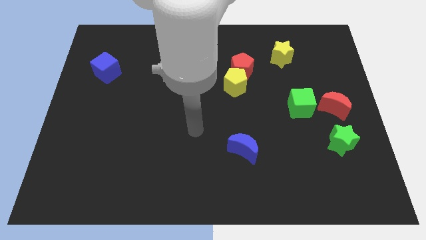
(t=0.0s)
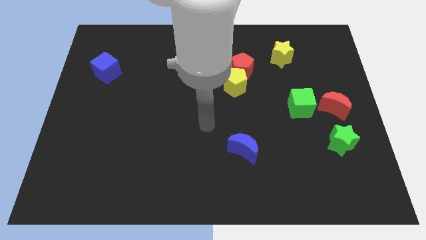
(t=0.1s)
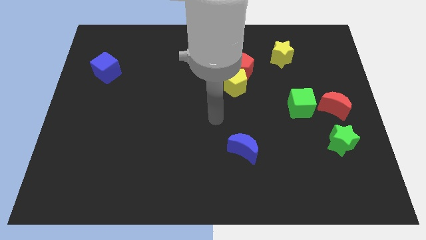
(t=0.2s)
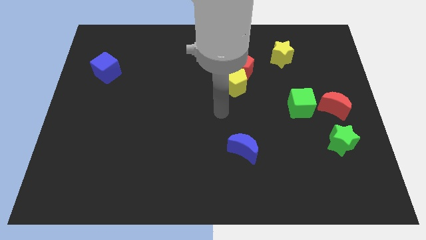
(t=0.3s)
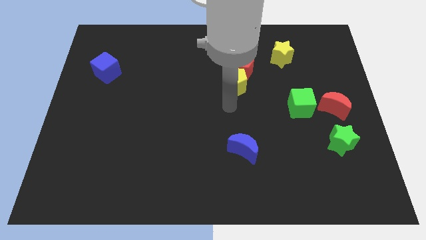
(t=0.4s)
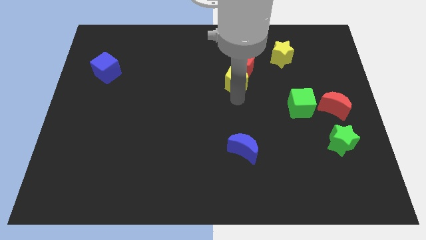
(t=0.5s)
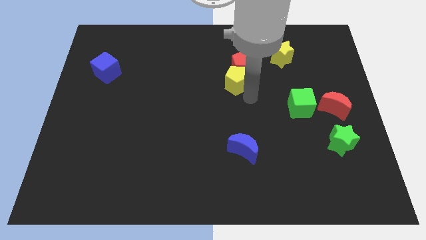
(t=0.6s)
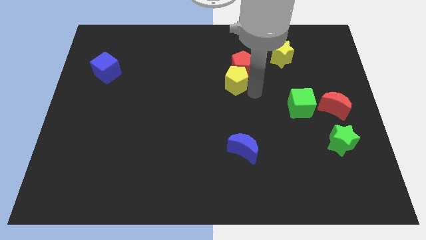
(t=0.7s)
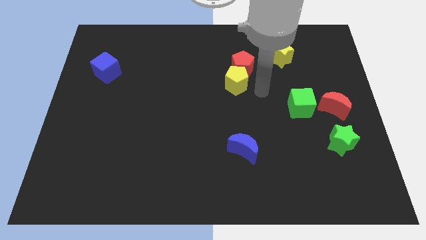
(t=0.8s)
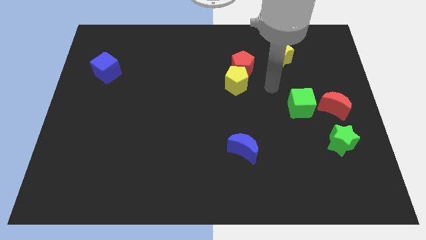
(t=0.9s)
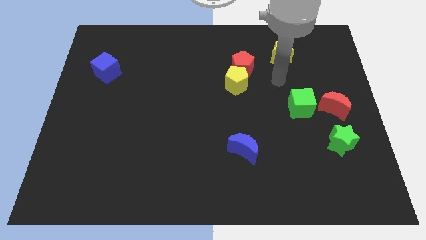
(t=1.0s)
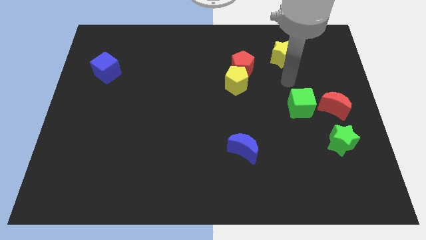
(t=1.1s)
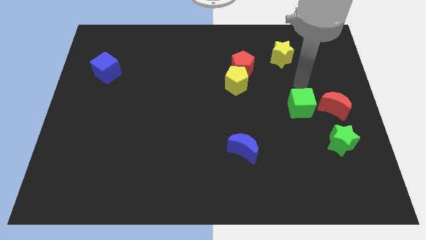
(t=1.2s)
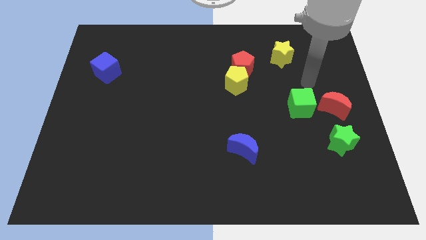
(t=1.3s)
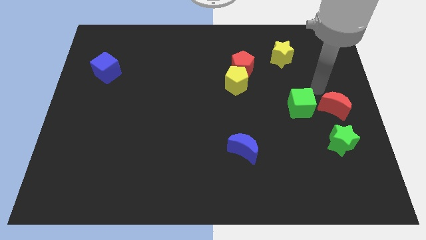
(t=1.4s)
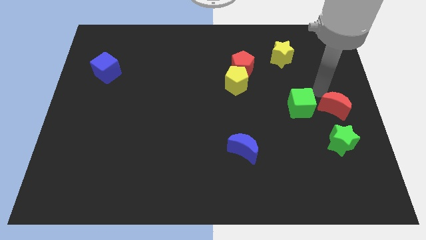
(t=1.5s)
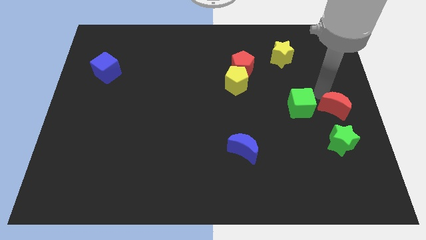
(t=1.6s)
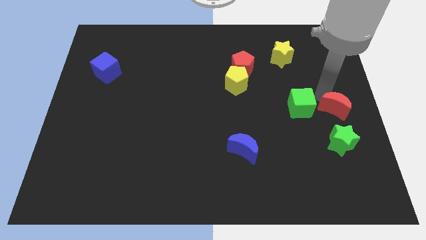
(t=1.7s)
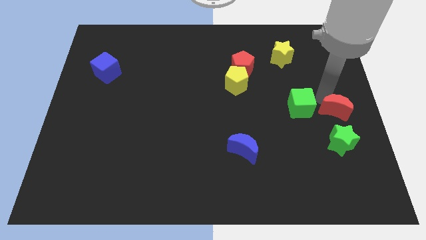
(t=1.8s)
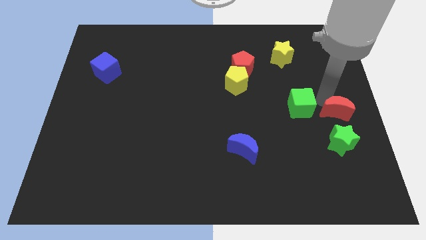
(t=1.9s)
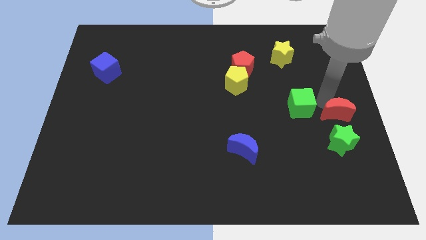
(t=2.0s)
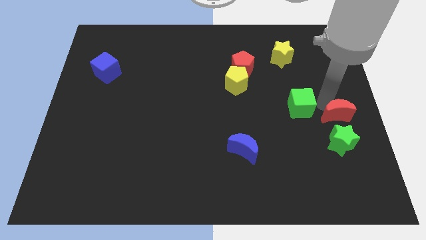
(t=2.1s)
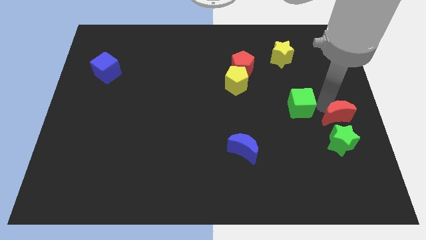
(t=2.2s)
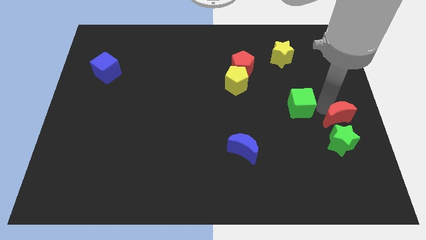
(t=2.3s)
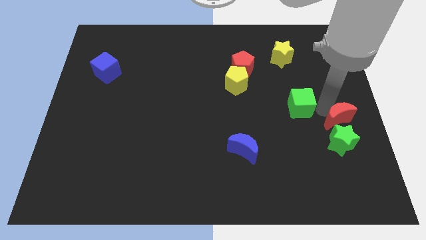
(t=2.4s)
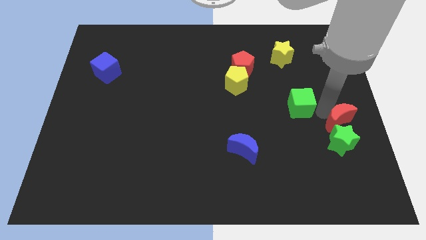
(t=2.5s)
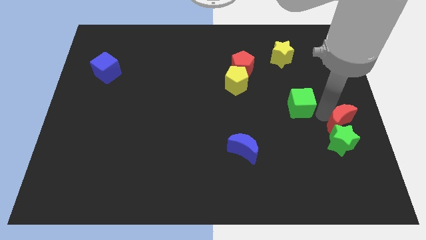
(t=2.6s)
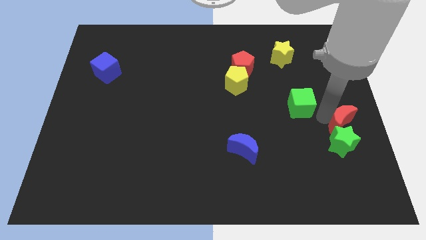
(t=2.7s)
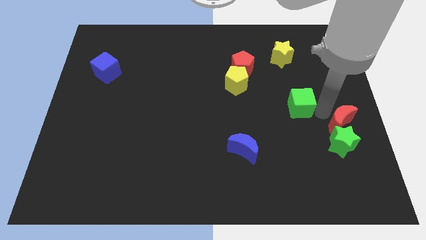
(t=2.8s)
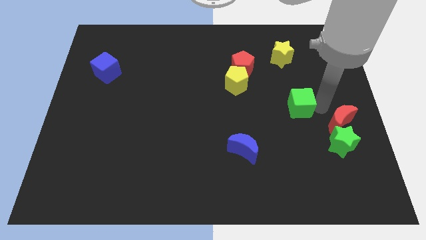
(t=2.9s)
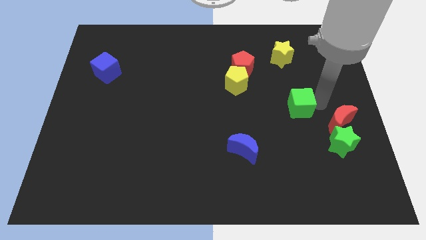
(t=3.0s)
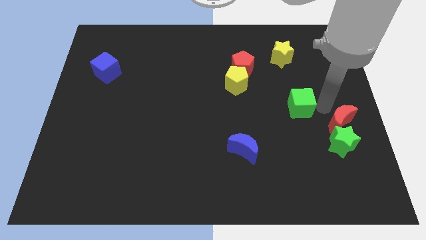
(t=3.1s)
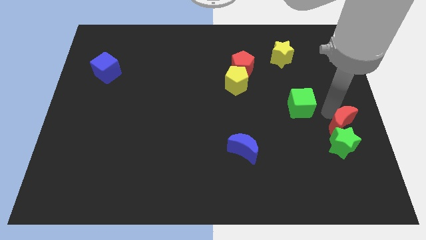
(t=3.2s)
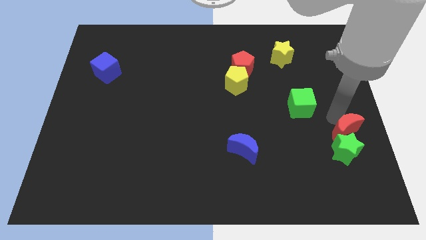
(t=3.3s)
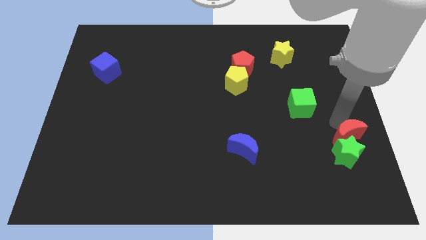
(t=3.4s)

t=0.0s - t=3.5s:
slightly move the red moon down

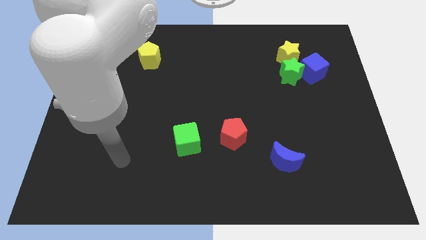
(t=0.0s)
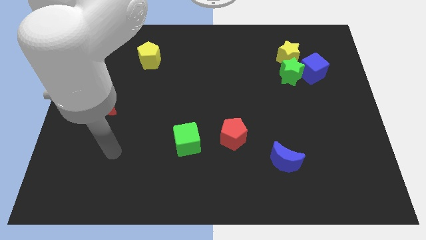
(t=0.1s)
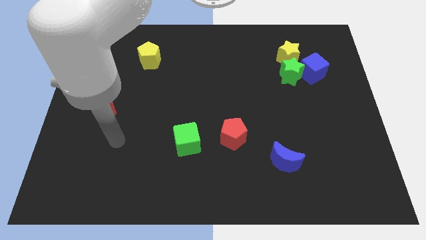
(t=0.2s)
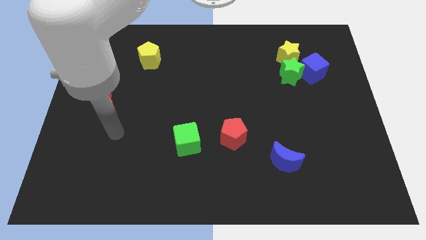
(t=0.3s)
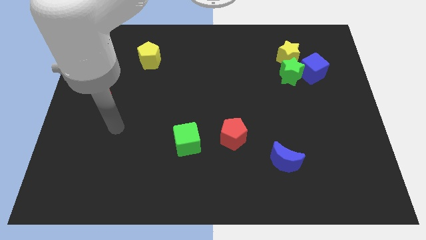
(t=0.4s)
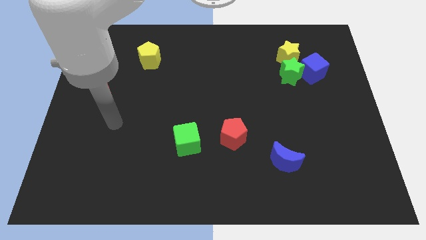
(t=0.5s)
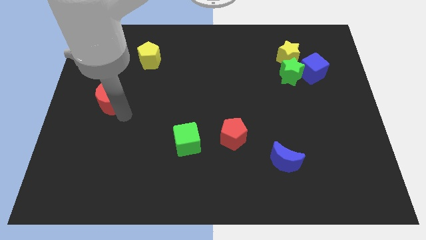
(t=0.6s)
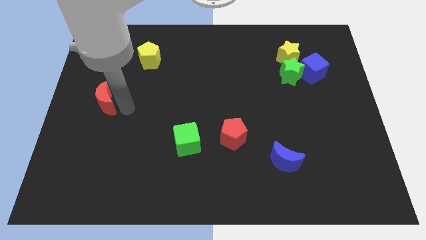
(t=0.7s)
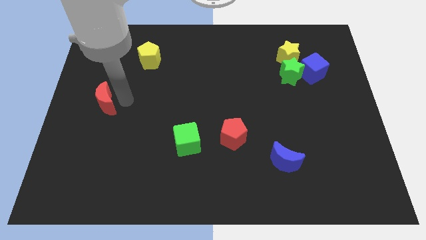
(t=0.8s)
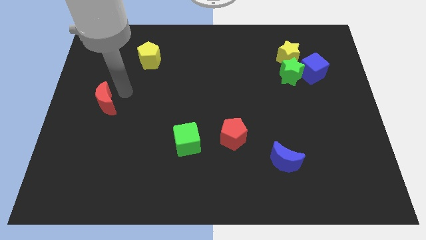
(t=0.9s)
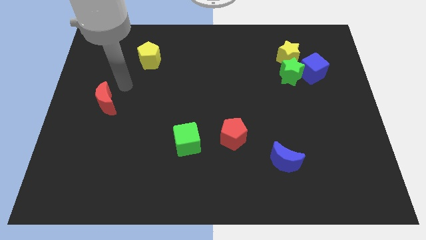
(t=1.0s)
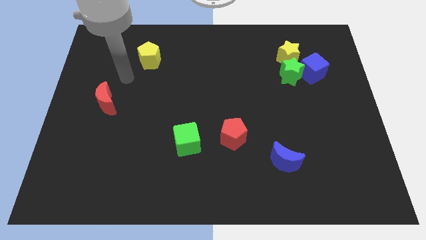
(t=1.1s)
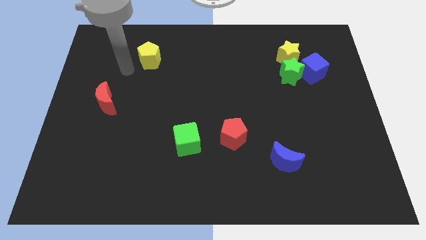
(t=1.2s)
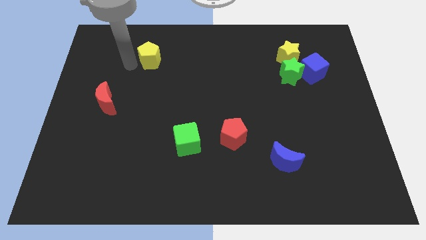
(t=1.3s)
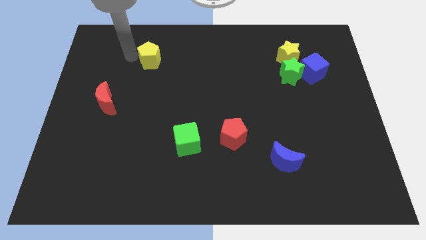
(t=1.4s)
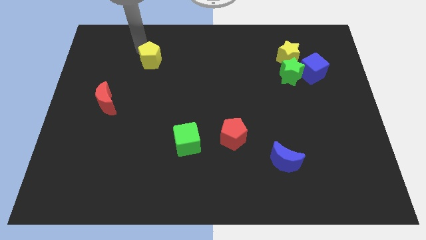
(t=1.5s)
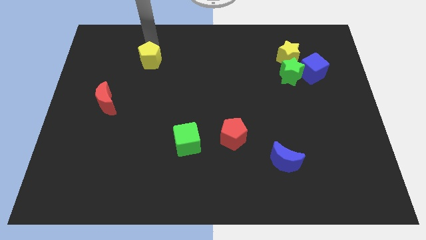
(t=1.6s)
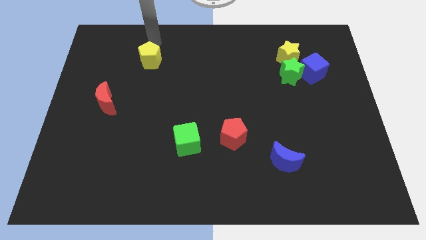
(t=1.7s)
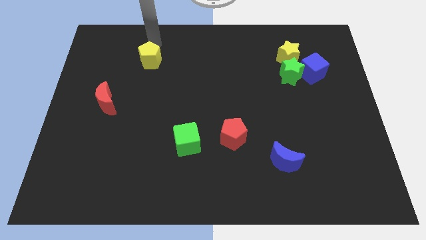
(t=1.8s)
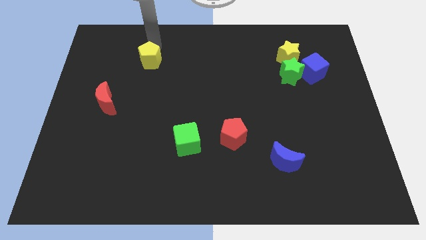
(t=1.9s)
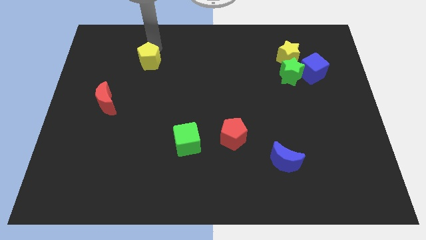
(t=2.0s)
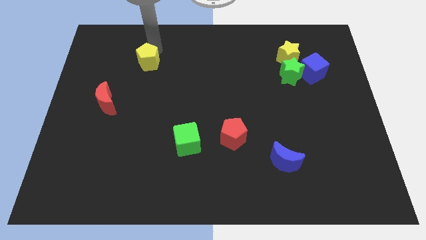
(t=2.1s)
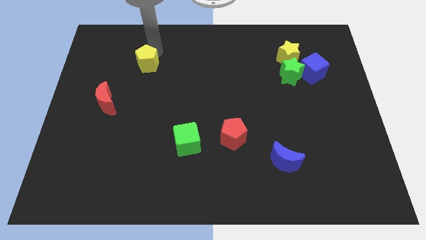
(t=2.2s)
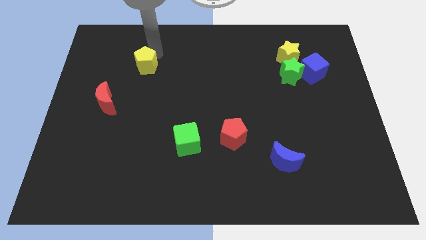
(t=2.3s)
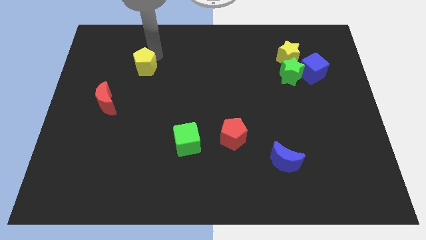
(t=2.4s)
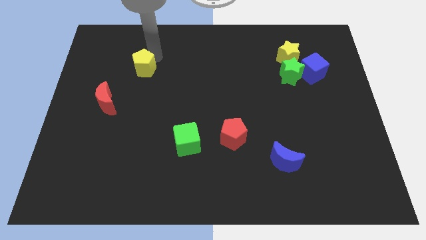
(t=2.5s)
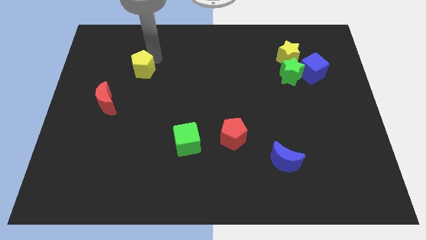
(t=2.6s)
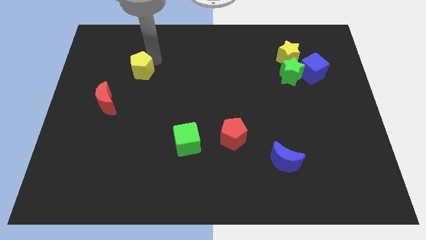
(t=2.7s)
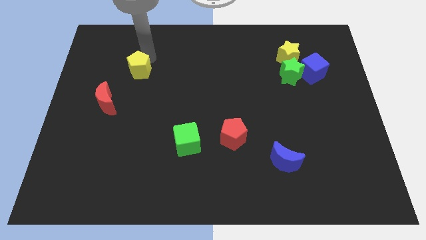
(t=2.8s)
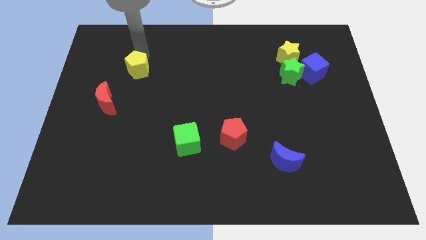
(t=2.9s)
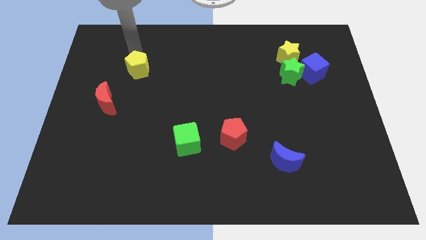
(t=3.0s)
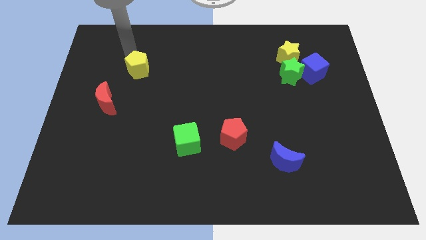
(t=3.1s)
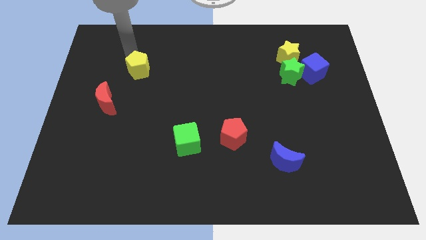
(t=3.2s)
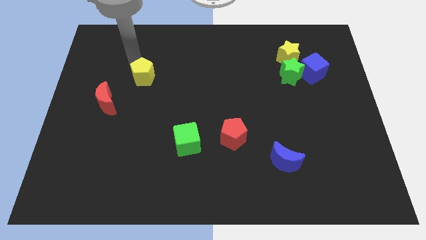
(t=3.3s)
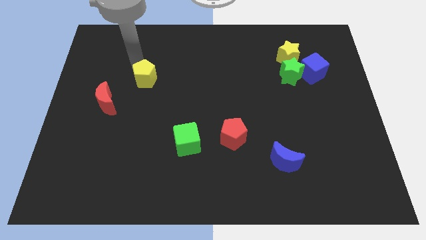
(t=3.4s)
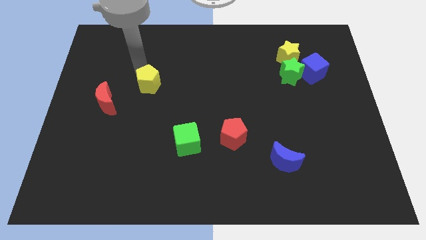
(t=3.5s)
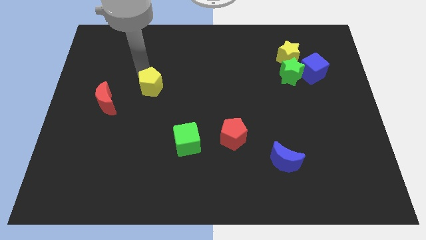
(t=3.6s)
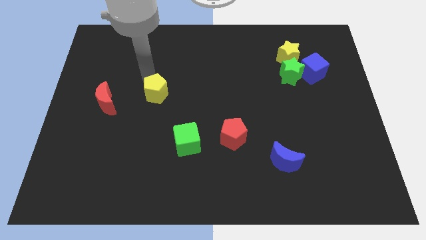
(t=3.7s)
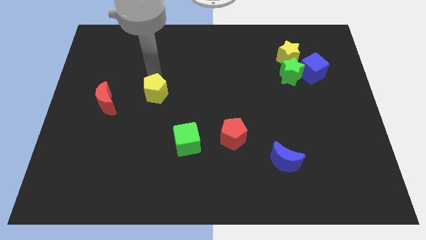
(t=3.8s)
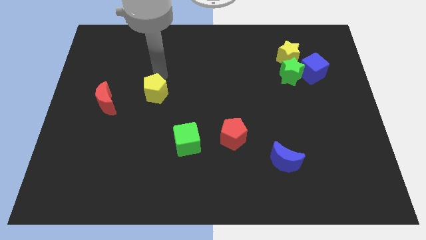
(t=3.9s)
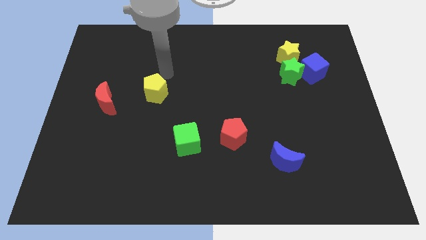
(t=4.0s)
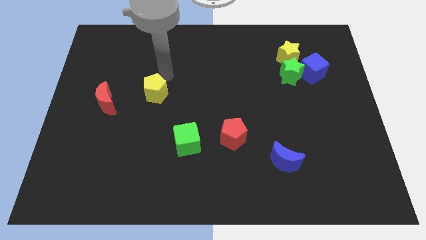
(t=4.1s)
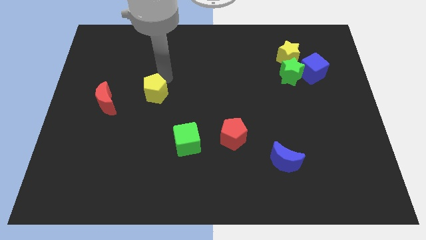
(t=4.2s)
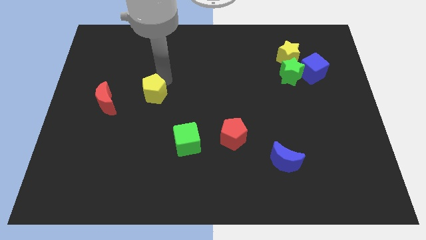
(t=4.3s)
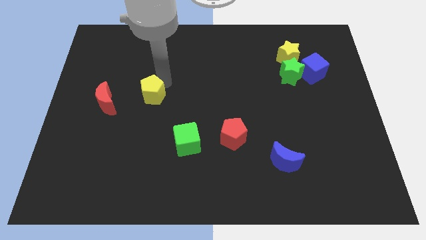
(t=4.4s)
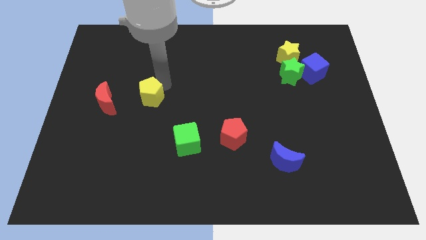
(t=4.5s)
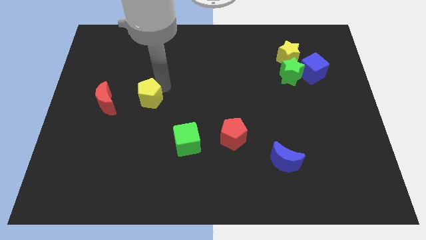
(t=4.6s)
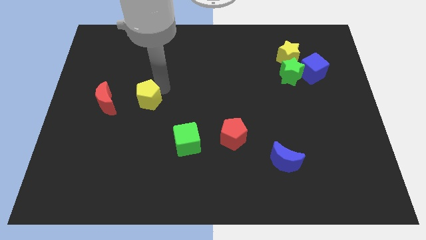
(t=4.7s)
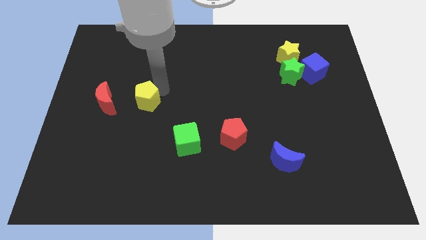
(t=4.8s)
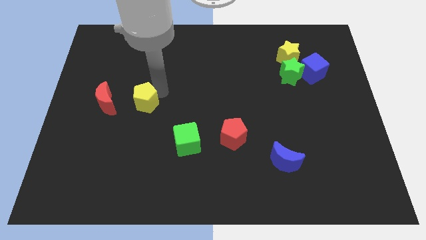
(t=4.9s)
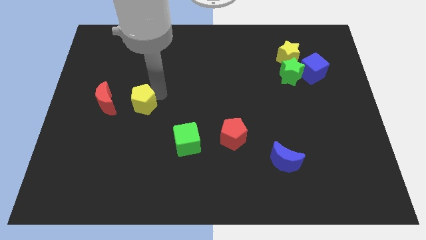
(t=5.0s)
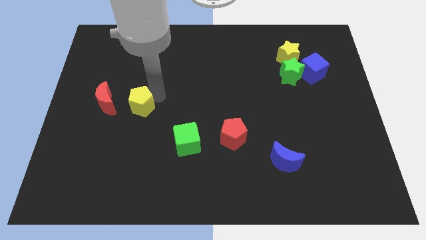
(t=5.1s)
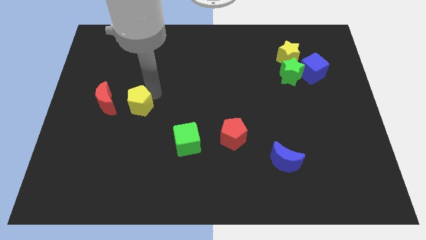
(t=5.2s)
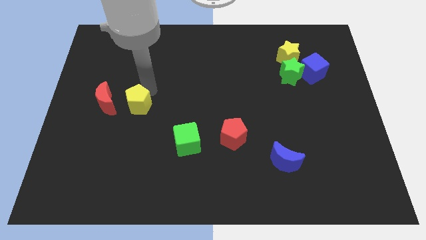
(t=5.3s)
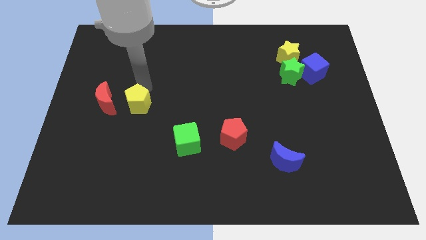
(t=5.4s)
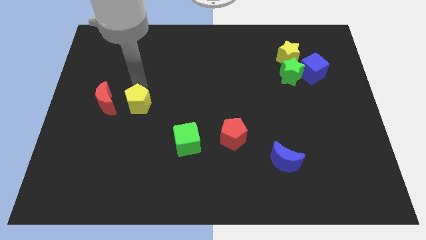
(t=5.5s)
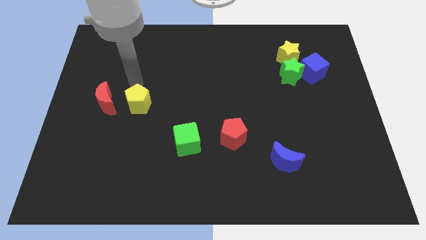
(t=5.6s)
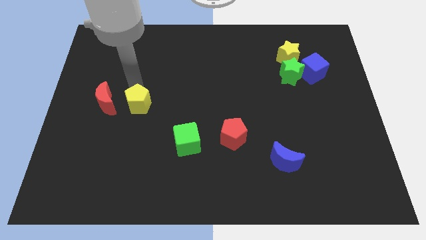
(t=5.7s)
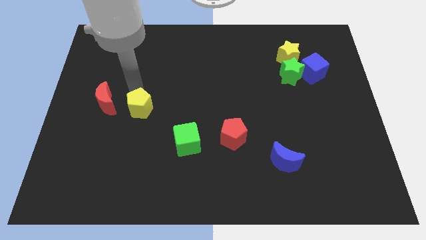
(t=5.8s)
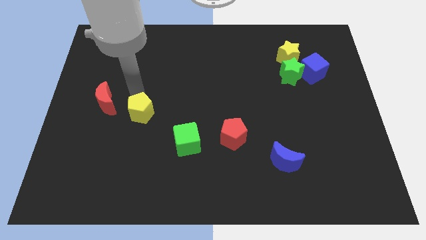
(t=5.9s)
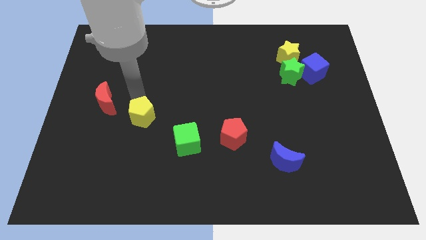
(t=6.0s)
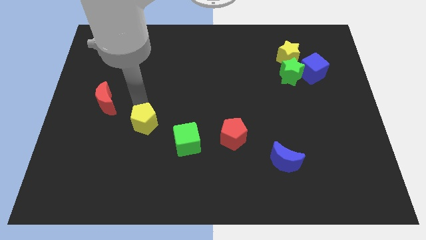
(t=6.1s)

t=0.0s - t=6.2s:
slide the yellow pentagon down
